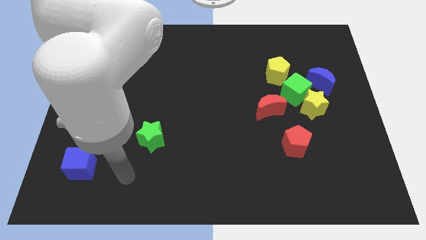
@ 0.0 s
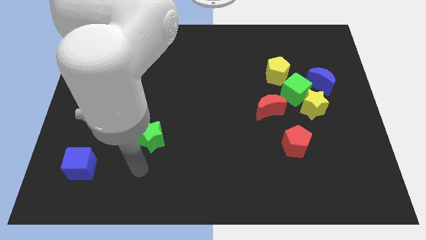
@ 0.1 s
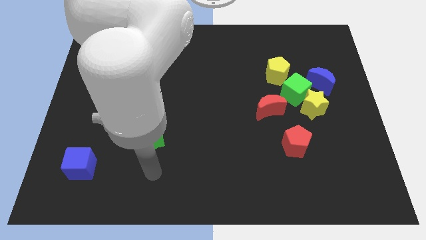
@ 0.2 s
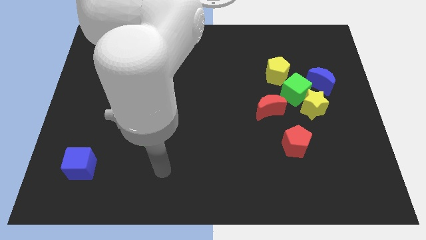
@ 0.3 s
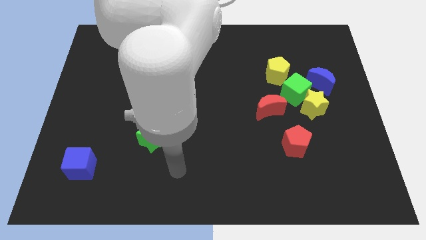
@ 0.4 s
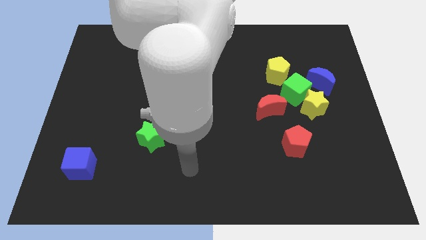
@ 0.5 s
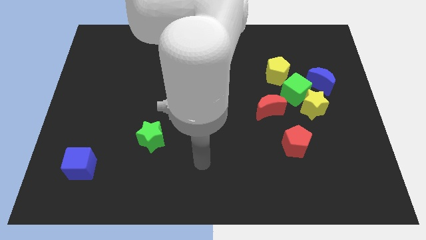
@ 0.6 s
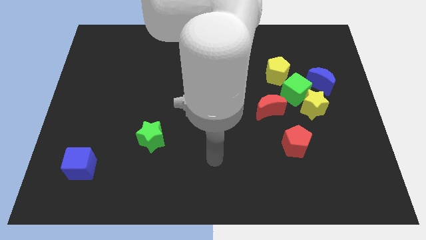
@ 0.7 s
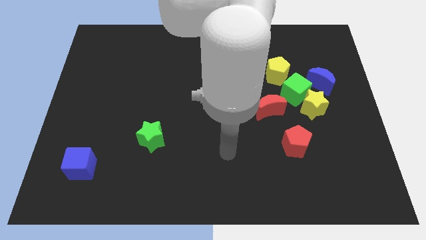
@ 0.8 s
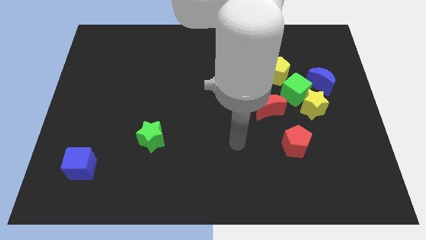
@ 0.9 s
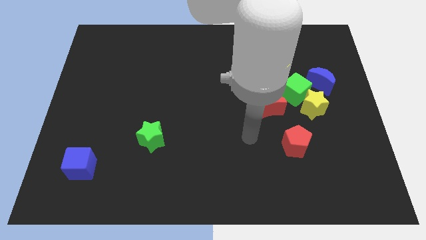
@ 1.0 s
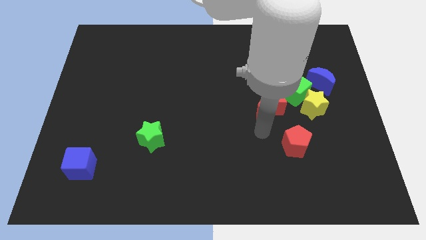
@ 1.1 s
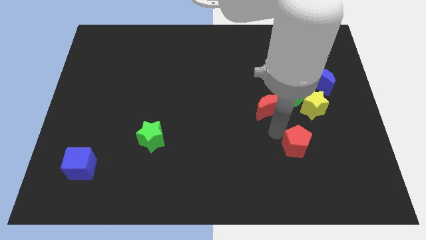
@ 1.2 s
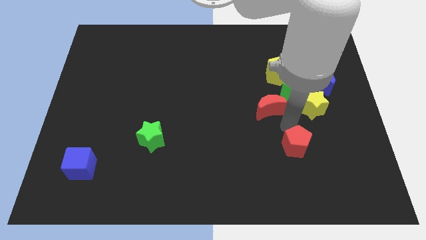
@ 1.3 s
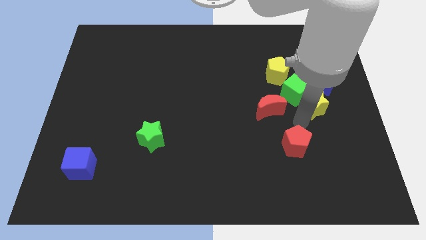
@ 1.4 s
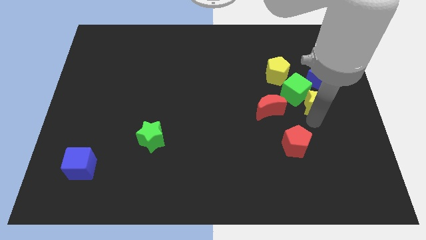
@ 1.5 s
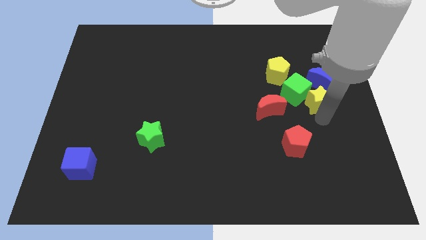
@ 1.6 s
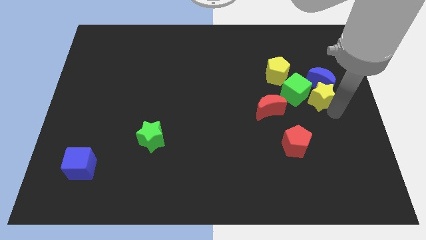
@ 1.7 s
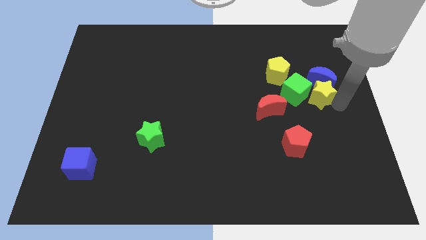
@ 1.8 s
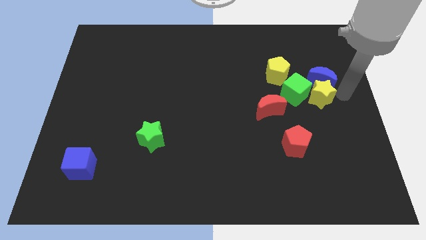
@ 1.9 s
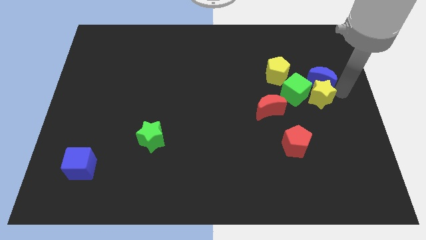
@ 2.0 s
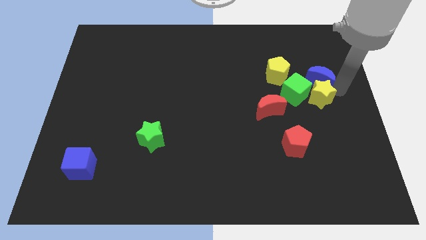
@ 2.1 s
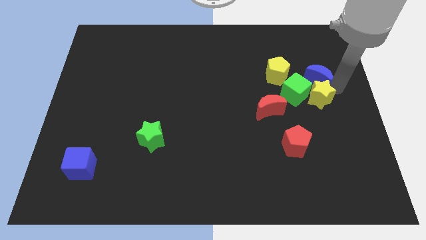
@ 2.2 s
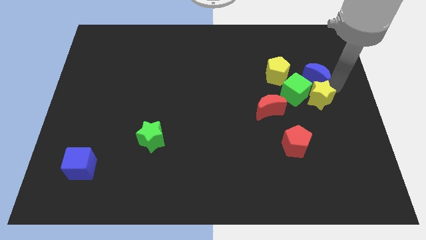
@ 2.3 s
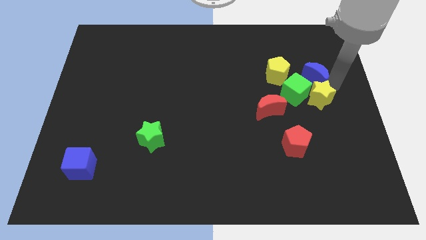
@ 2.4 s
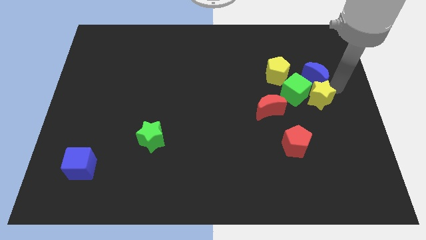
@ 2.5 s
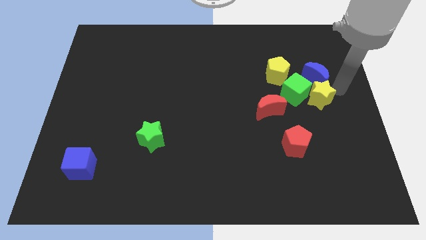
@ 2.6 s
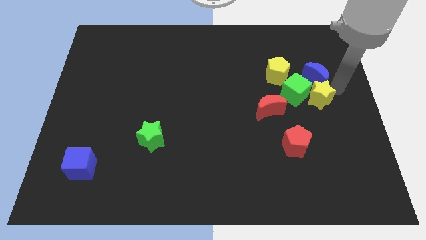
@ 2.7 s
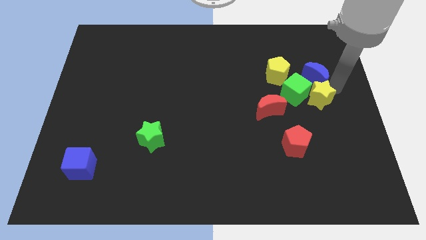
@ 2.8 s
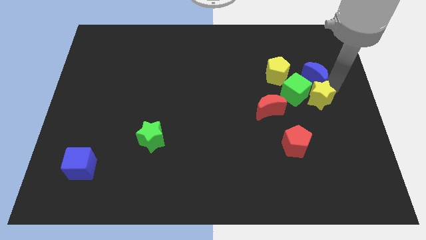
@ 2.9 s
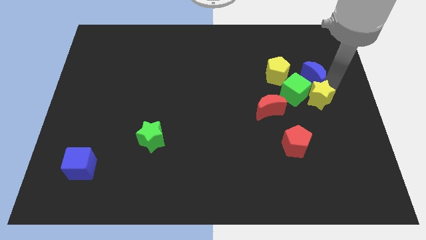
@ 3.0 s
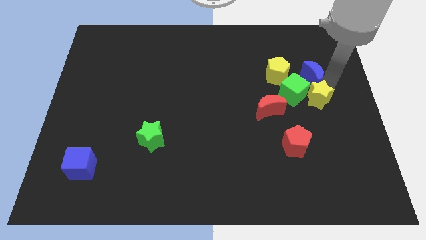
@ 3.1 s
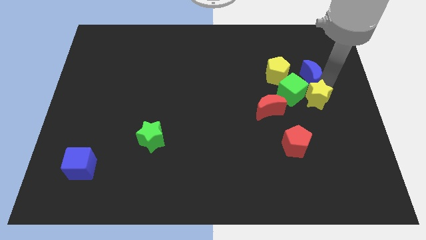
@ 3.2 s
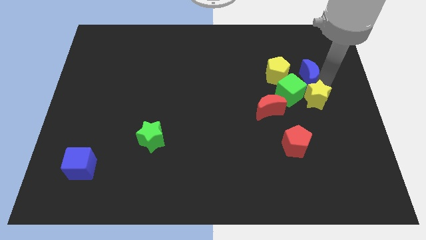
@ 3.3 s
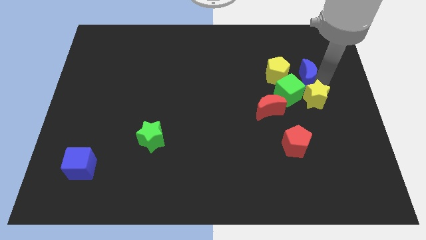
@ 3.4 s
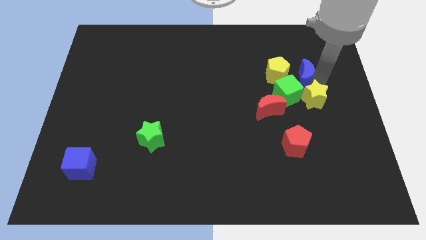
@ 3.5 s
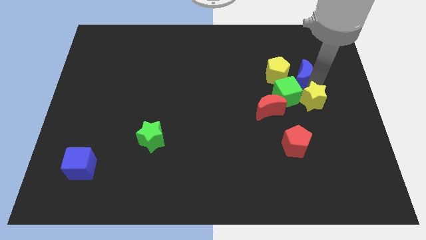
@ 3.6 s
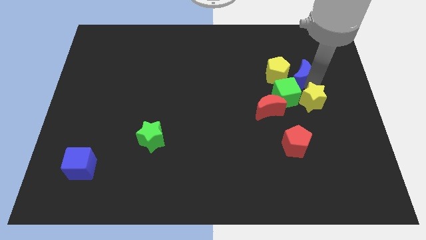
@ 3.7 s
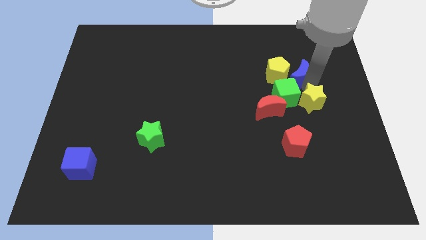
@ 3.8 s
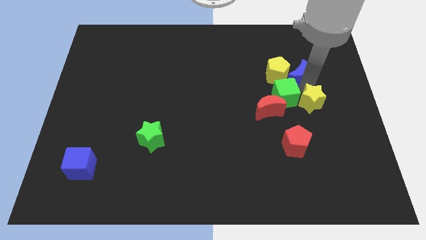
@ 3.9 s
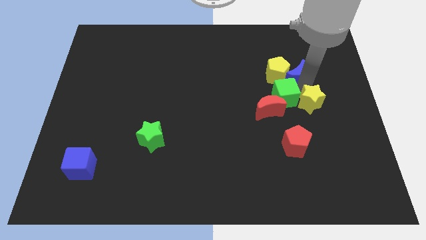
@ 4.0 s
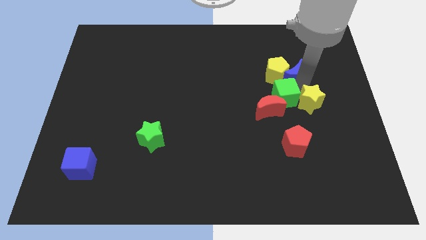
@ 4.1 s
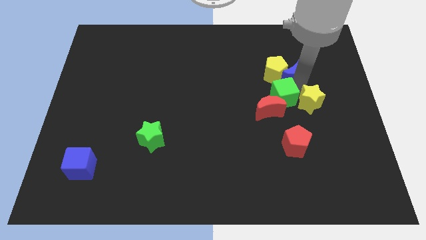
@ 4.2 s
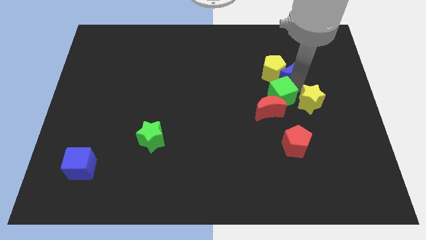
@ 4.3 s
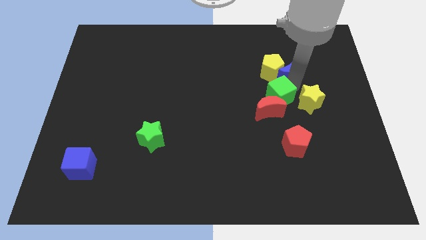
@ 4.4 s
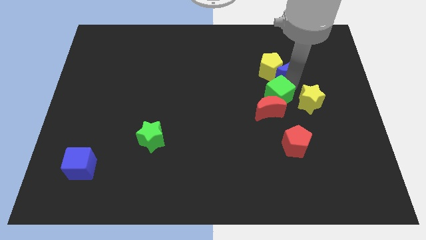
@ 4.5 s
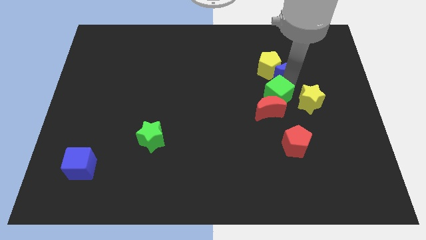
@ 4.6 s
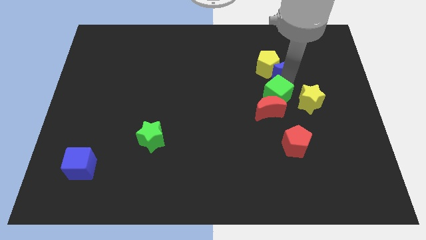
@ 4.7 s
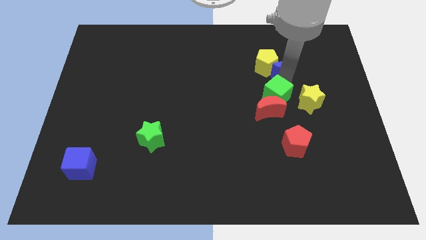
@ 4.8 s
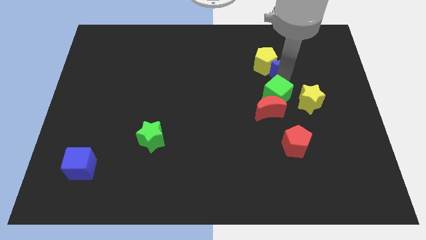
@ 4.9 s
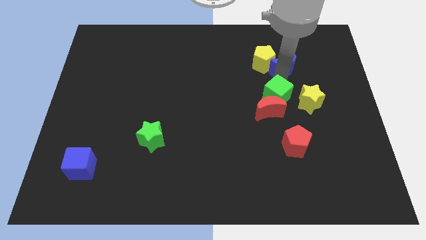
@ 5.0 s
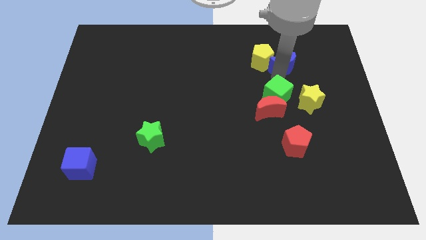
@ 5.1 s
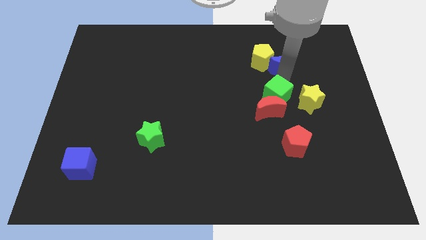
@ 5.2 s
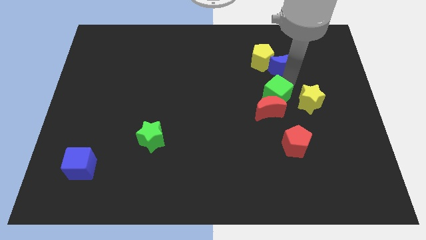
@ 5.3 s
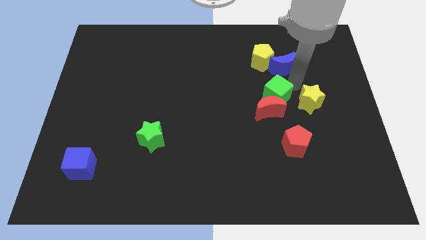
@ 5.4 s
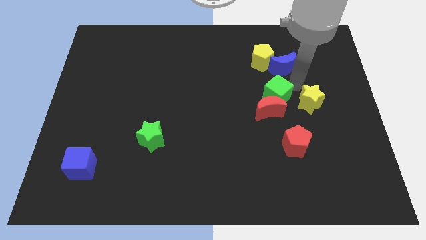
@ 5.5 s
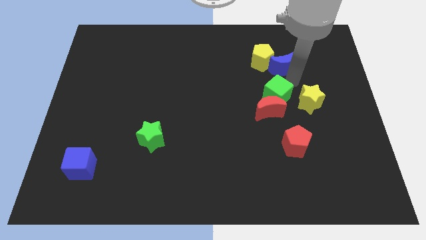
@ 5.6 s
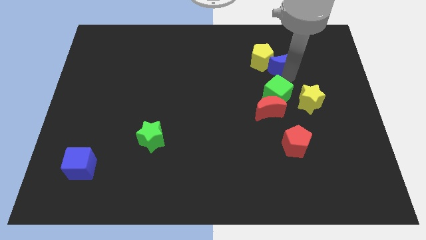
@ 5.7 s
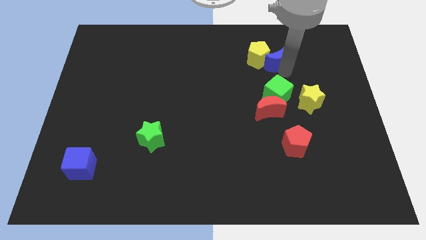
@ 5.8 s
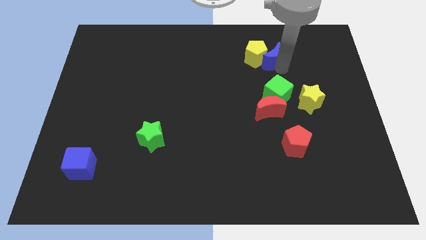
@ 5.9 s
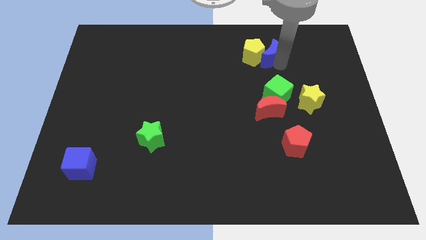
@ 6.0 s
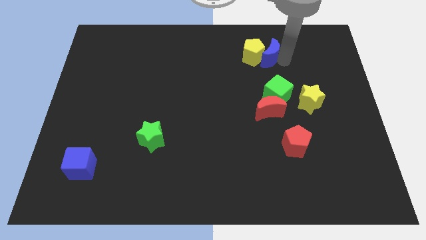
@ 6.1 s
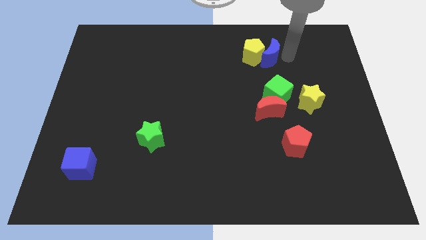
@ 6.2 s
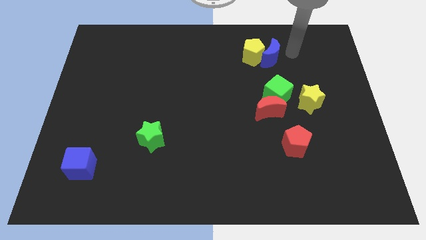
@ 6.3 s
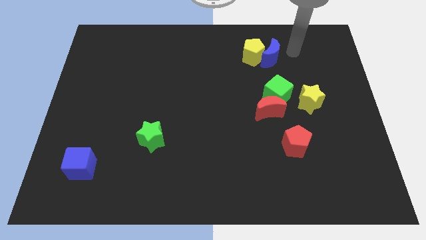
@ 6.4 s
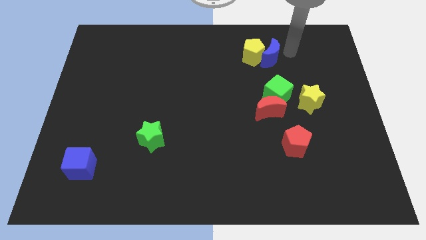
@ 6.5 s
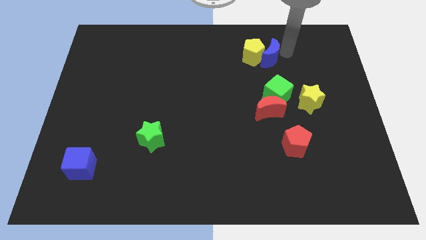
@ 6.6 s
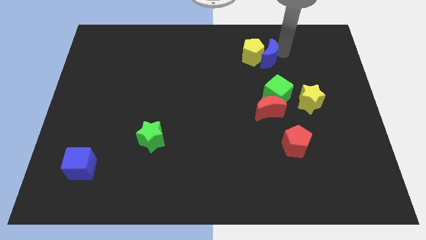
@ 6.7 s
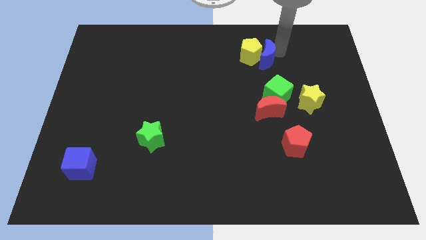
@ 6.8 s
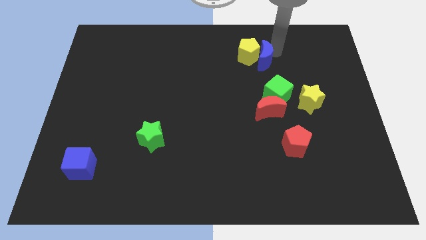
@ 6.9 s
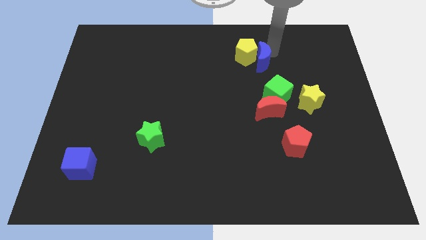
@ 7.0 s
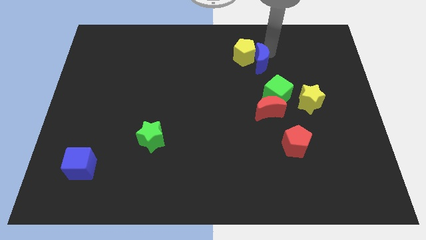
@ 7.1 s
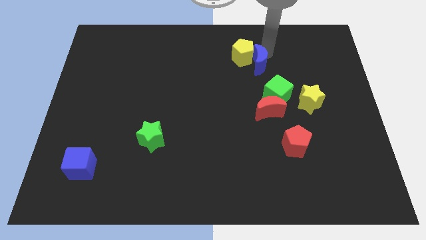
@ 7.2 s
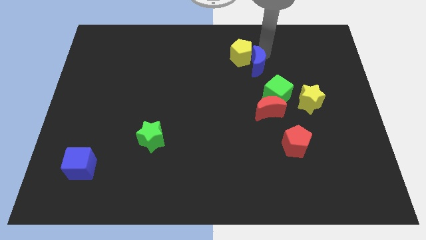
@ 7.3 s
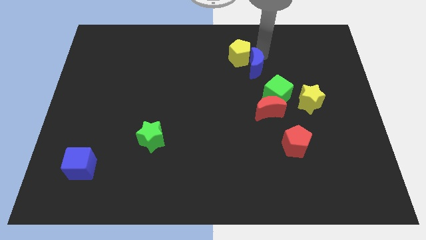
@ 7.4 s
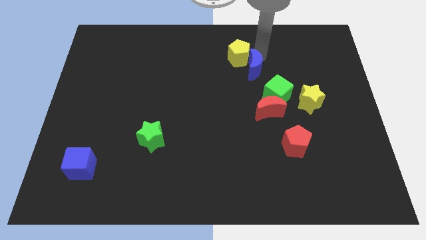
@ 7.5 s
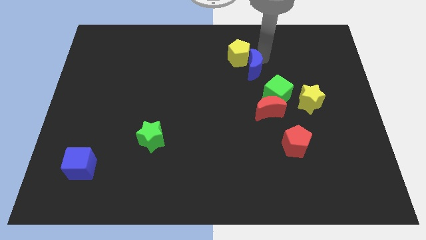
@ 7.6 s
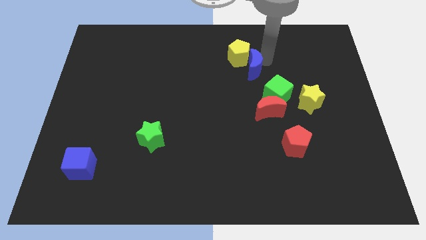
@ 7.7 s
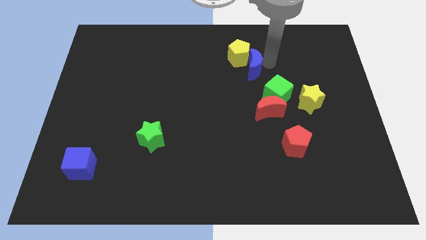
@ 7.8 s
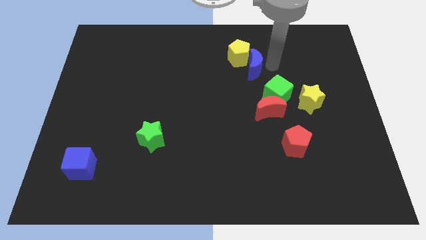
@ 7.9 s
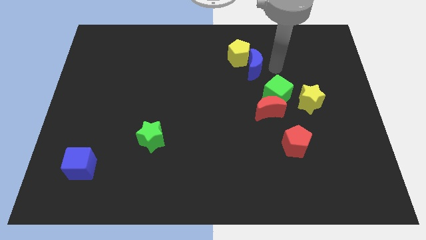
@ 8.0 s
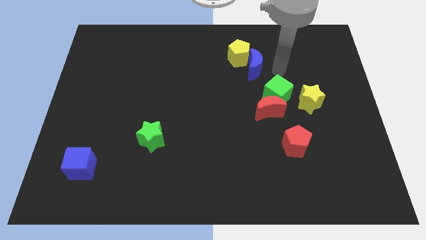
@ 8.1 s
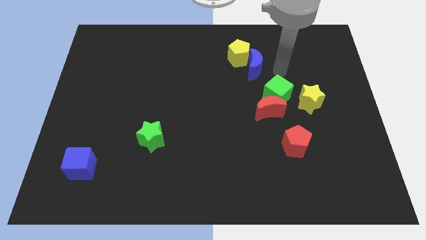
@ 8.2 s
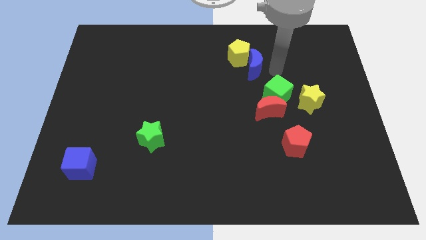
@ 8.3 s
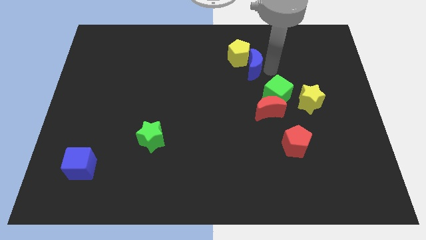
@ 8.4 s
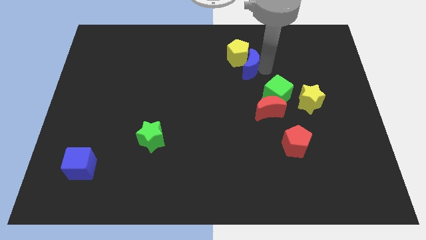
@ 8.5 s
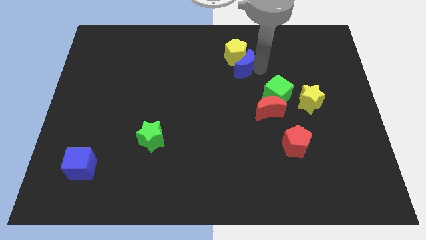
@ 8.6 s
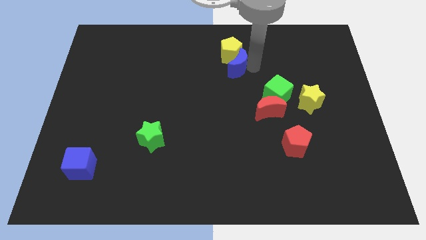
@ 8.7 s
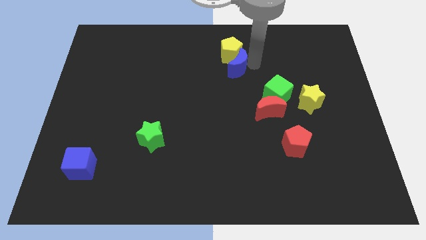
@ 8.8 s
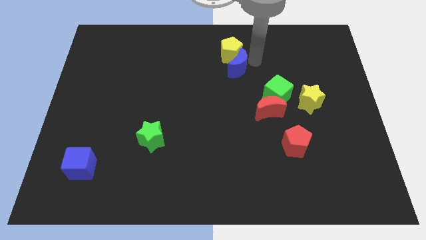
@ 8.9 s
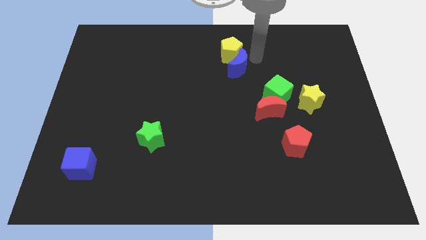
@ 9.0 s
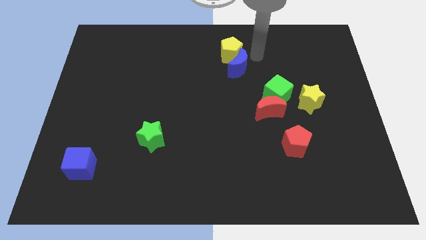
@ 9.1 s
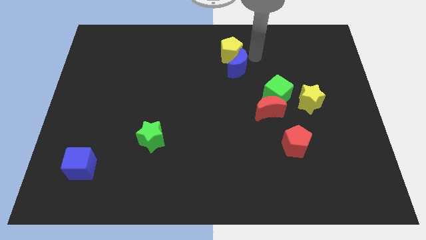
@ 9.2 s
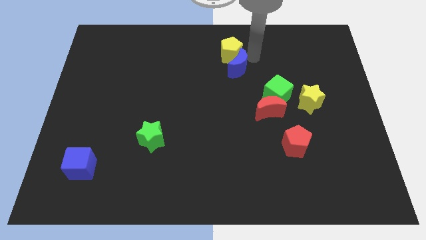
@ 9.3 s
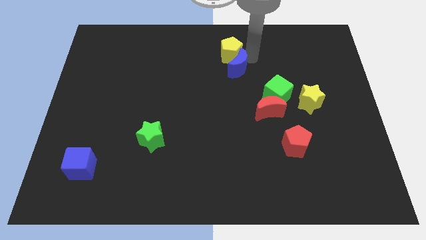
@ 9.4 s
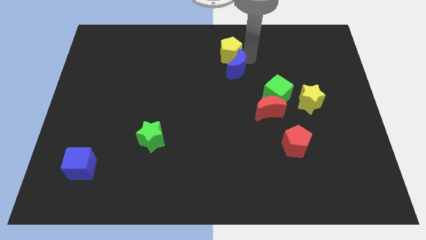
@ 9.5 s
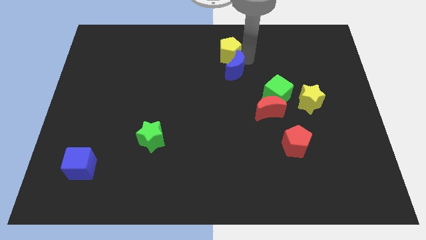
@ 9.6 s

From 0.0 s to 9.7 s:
slide the blue moon left
